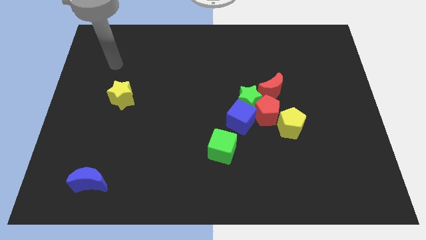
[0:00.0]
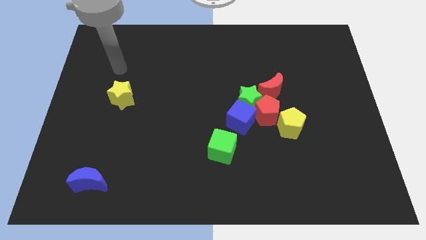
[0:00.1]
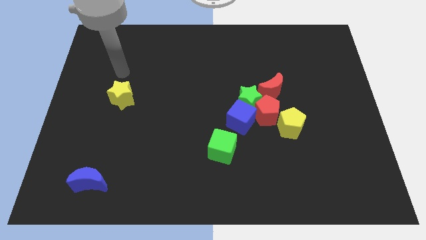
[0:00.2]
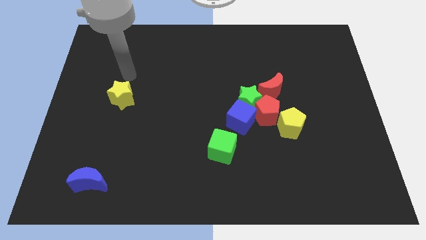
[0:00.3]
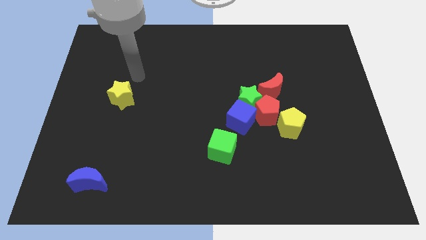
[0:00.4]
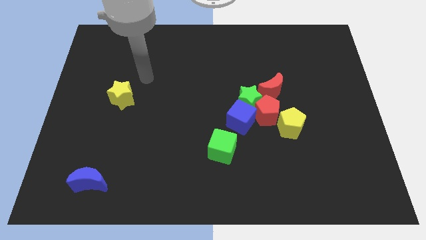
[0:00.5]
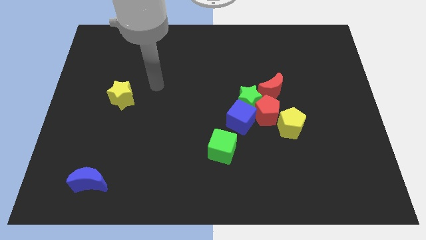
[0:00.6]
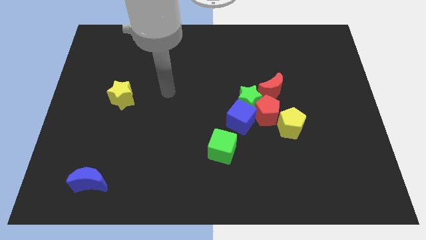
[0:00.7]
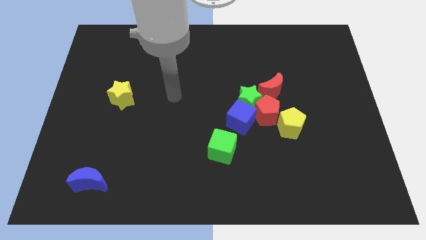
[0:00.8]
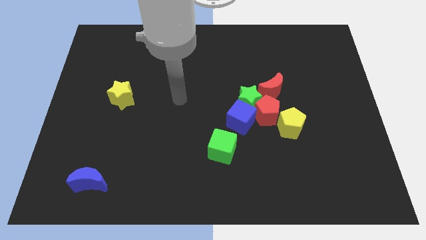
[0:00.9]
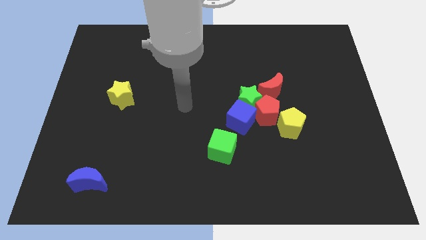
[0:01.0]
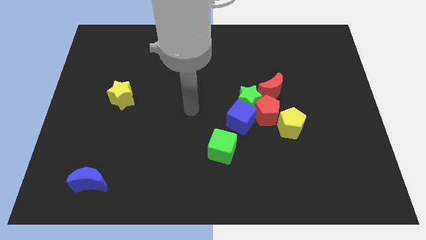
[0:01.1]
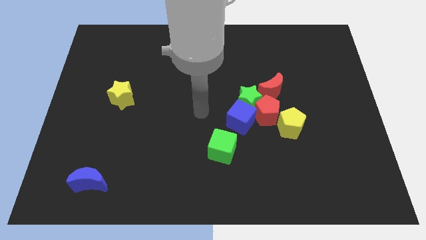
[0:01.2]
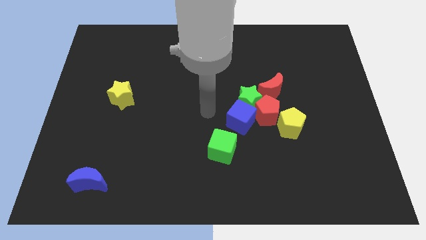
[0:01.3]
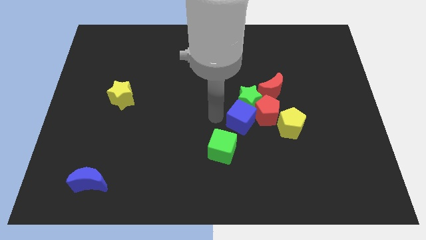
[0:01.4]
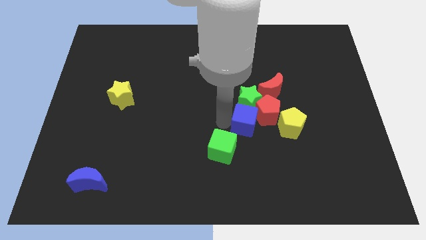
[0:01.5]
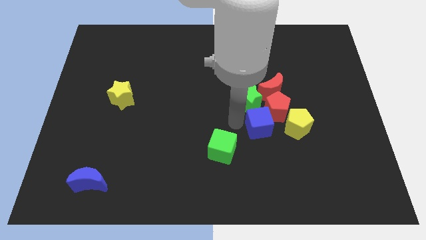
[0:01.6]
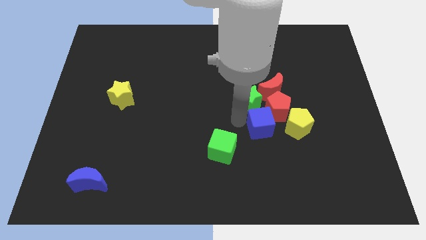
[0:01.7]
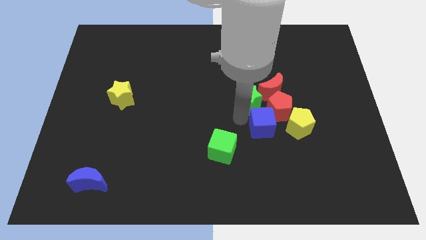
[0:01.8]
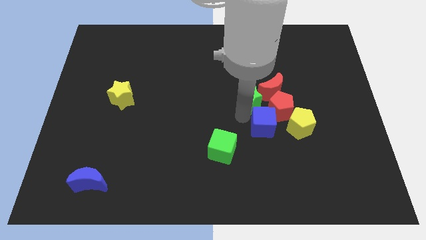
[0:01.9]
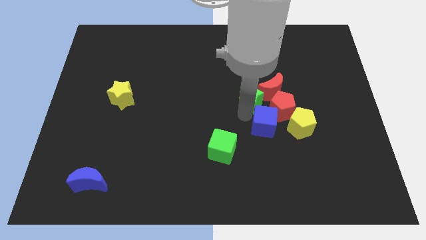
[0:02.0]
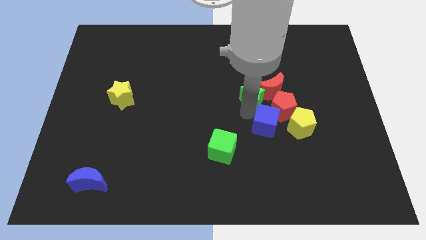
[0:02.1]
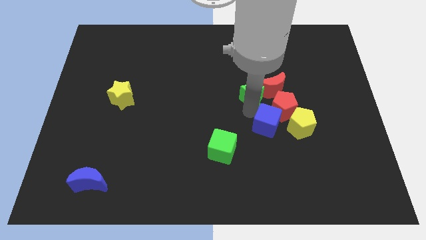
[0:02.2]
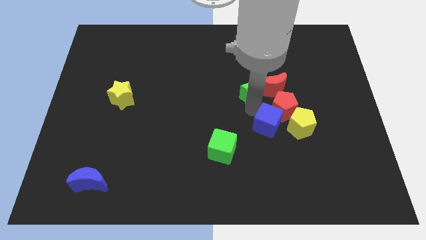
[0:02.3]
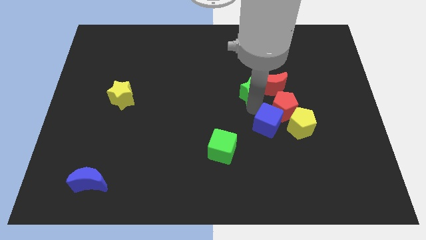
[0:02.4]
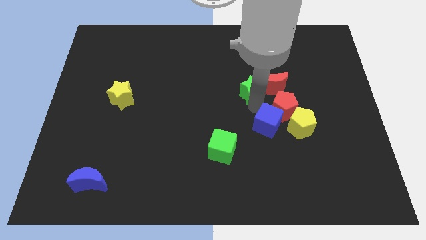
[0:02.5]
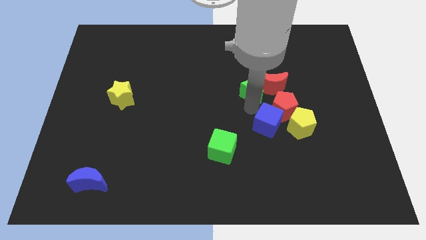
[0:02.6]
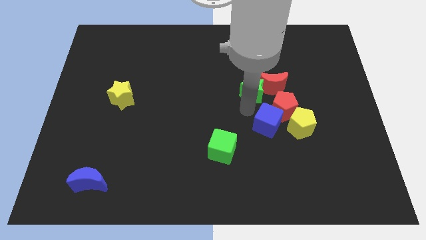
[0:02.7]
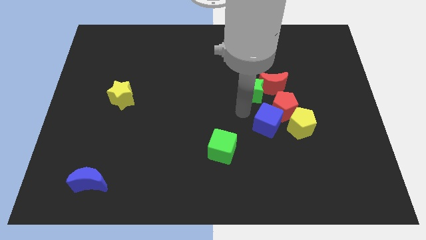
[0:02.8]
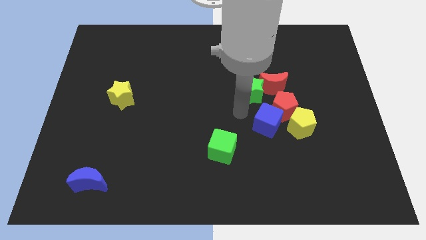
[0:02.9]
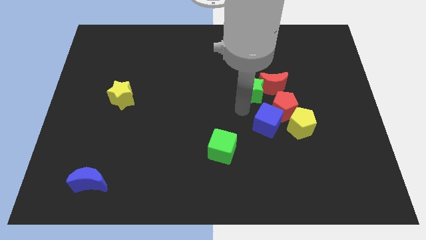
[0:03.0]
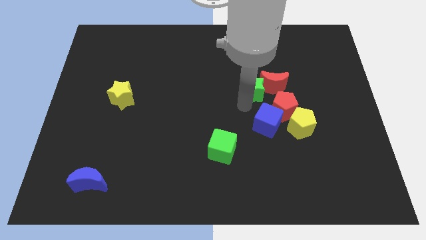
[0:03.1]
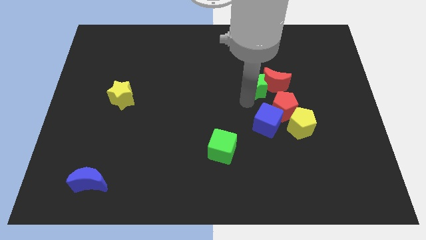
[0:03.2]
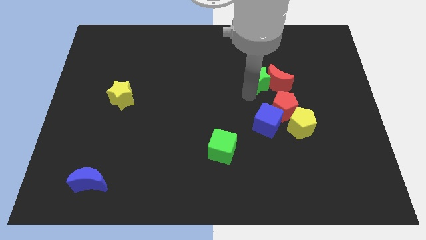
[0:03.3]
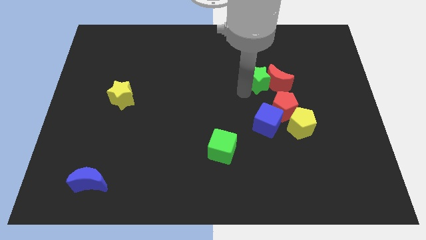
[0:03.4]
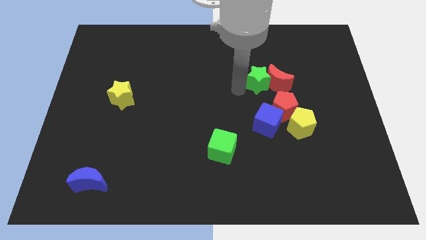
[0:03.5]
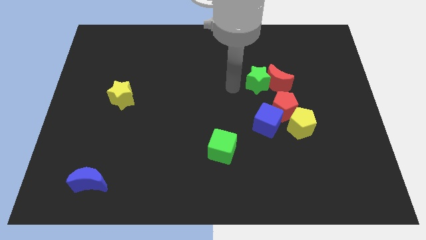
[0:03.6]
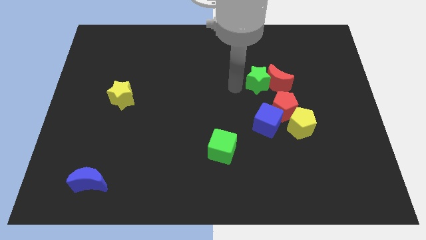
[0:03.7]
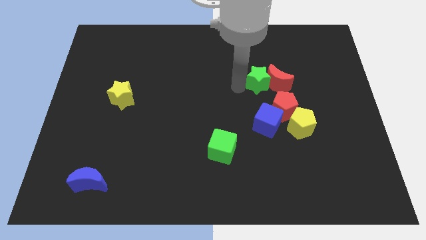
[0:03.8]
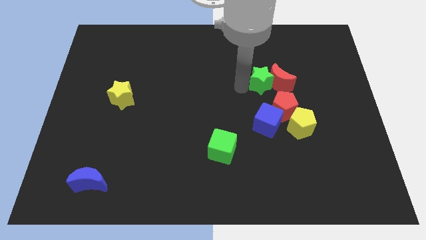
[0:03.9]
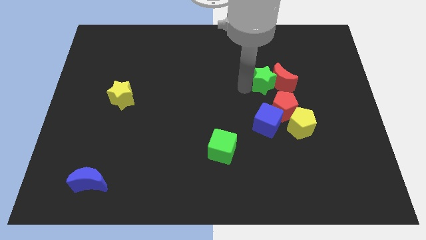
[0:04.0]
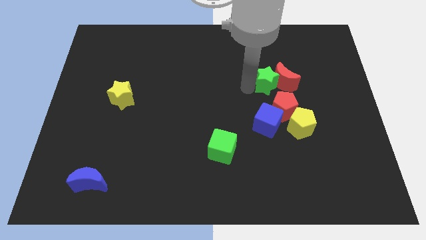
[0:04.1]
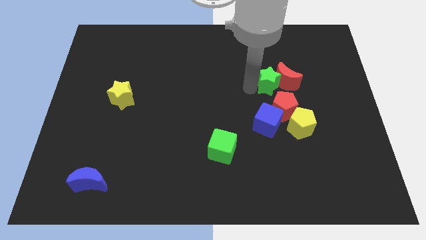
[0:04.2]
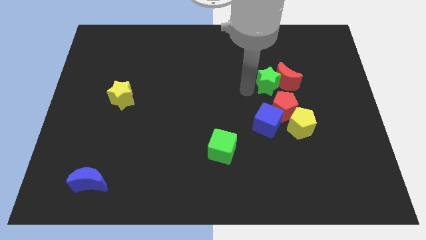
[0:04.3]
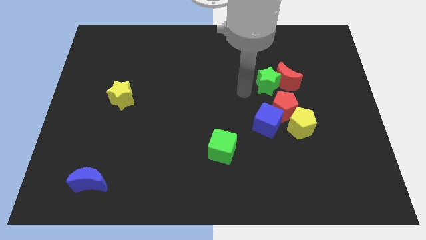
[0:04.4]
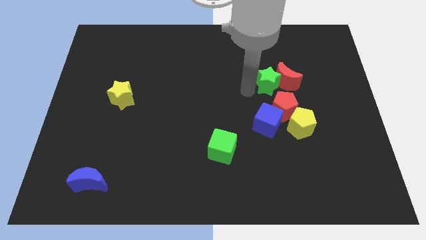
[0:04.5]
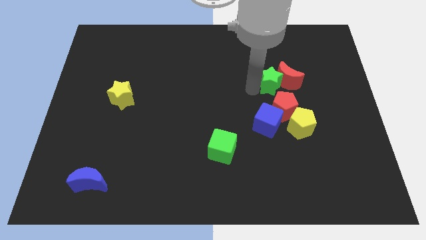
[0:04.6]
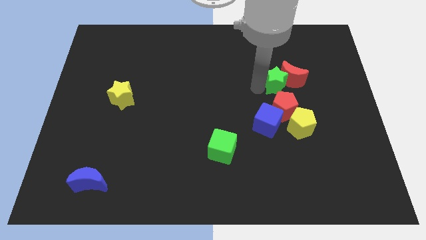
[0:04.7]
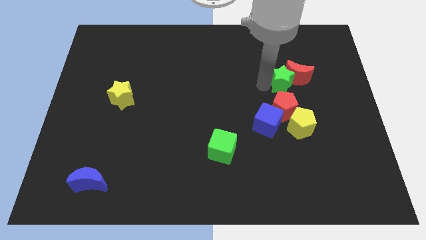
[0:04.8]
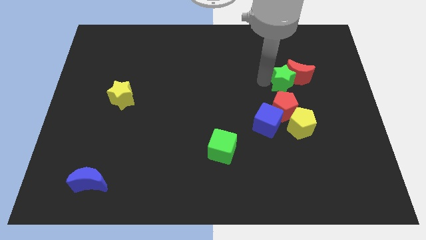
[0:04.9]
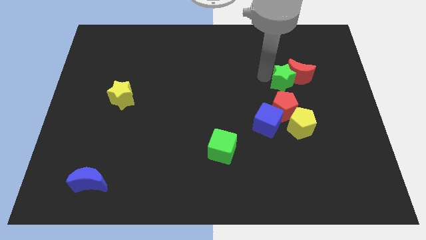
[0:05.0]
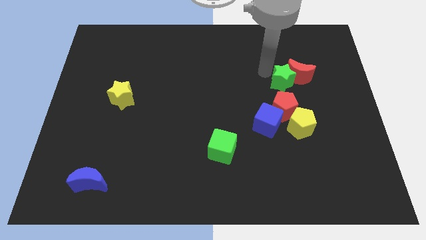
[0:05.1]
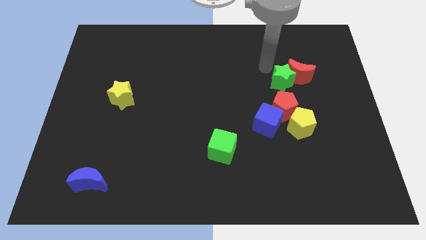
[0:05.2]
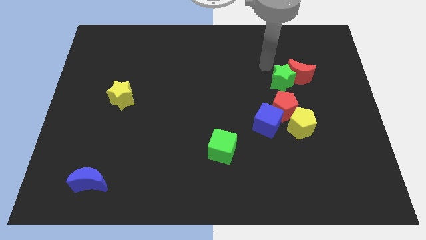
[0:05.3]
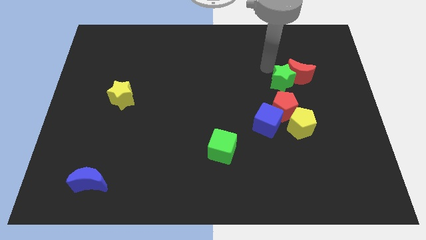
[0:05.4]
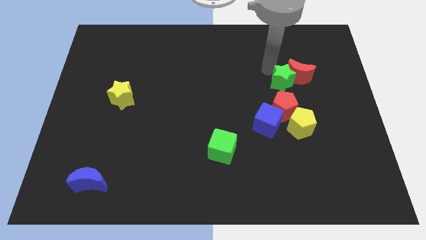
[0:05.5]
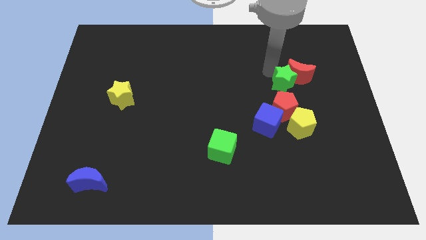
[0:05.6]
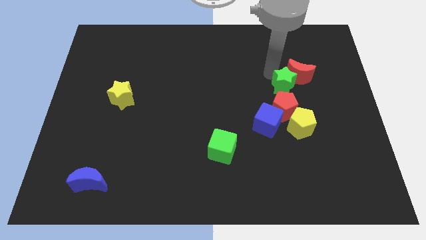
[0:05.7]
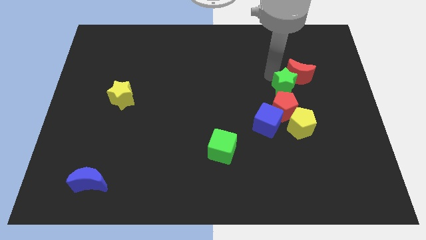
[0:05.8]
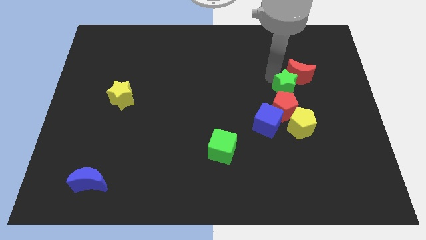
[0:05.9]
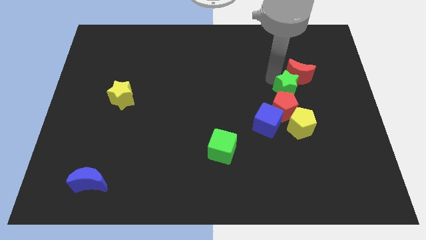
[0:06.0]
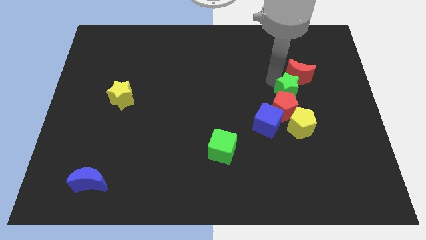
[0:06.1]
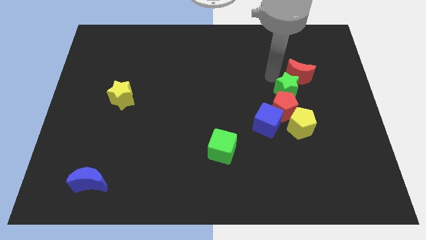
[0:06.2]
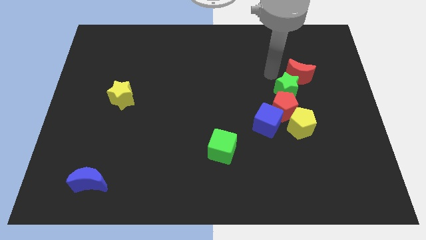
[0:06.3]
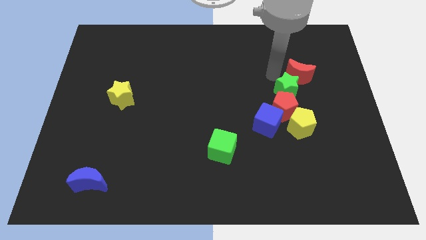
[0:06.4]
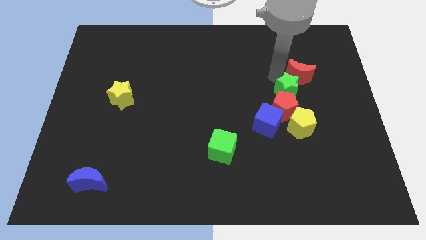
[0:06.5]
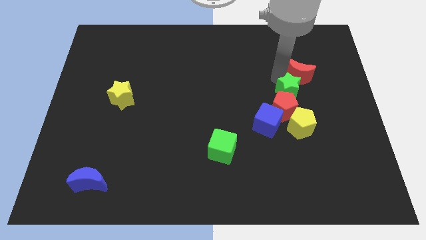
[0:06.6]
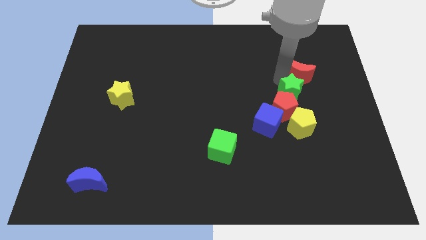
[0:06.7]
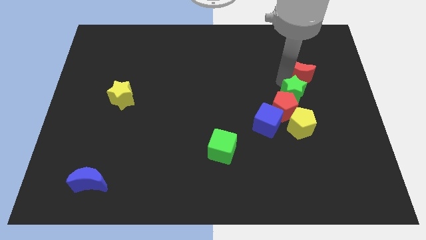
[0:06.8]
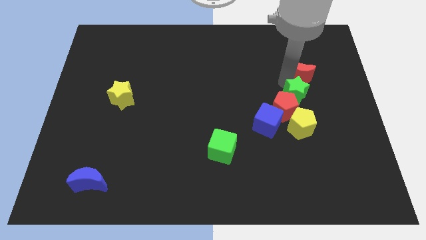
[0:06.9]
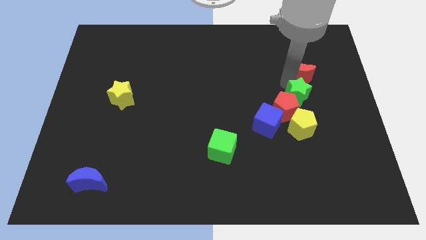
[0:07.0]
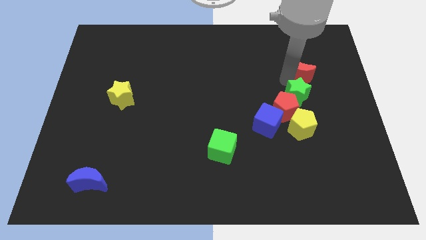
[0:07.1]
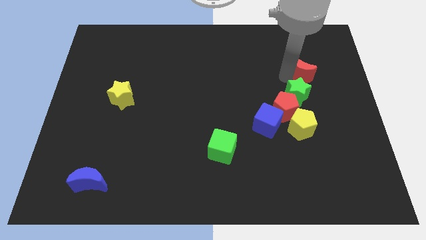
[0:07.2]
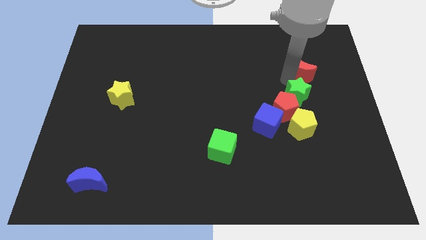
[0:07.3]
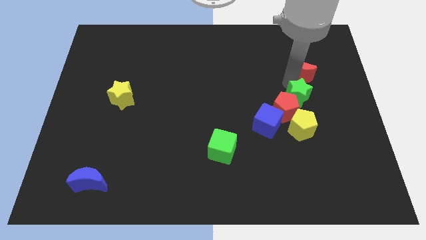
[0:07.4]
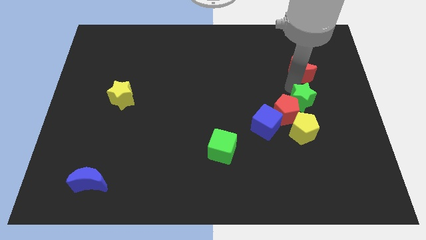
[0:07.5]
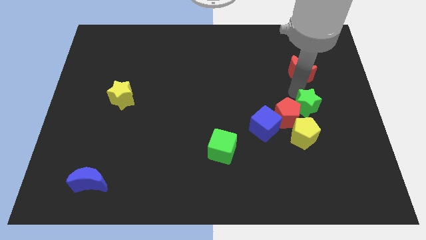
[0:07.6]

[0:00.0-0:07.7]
slightly move the green star diagonally downwards and right

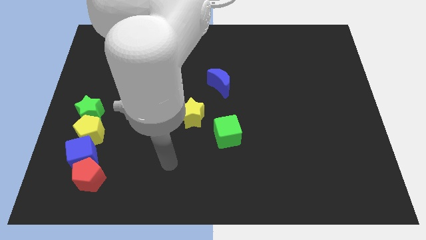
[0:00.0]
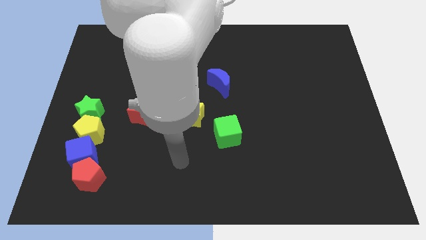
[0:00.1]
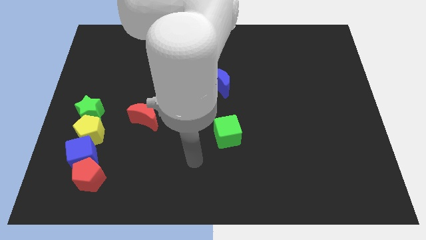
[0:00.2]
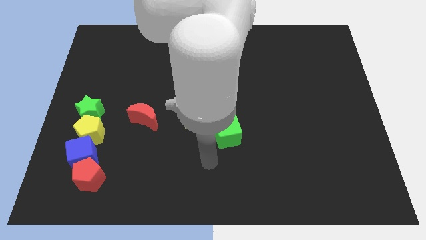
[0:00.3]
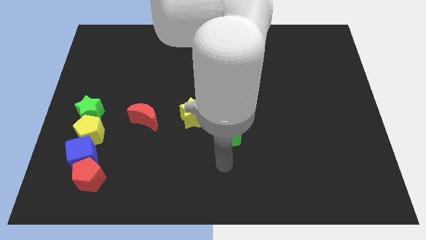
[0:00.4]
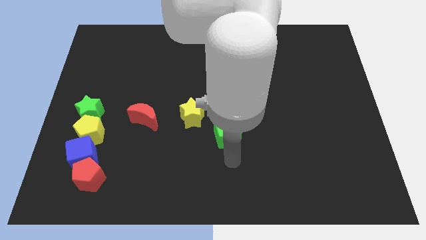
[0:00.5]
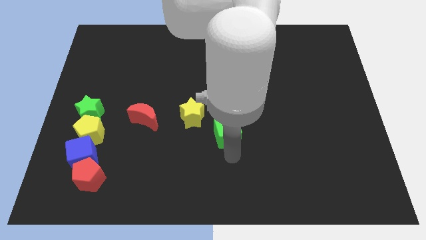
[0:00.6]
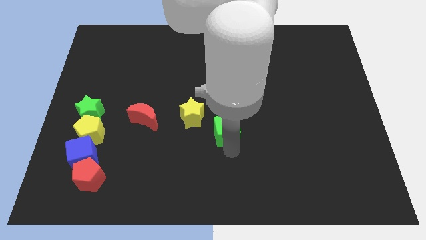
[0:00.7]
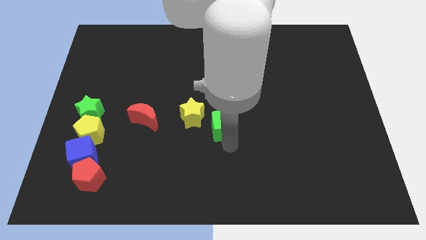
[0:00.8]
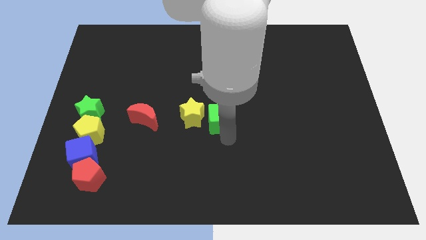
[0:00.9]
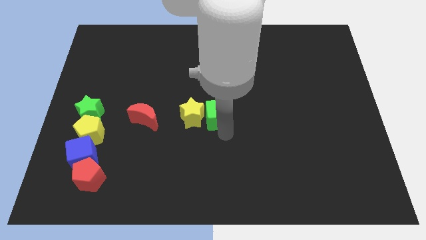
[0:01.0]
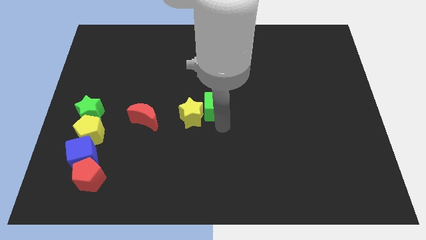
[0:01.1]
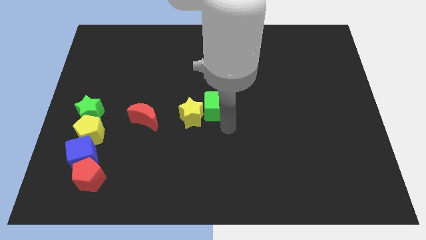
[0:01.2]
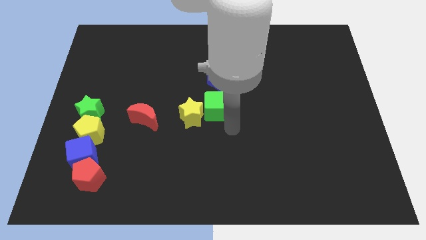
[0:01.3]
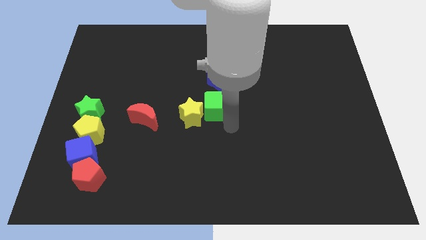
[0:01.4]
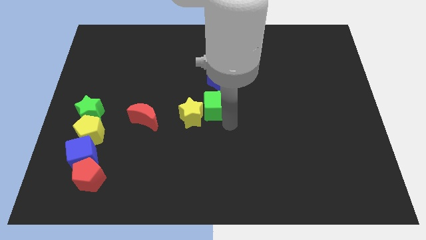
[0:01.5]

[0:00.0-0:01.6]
slightly move the green cube up and then to the left
